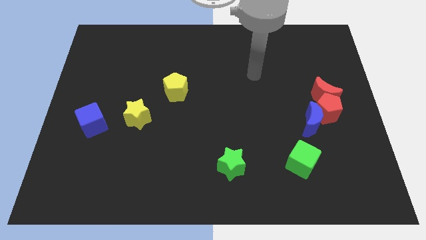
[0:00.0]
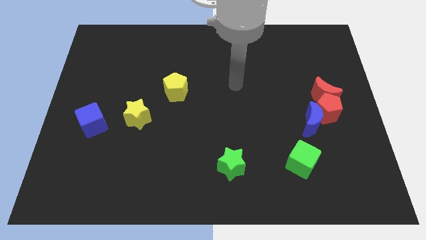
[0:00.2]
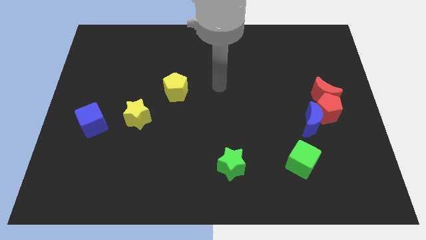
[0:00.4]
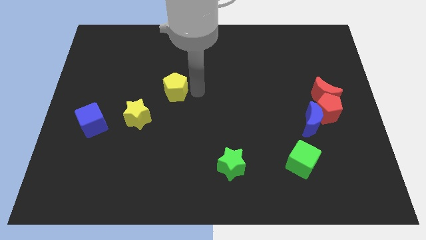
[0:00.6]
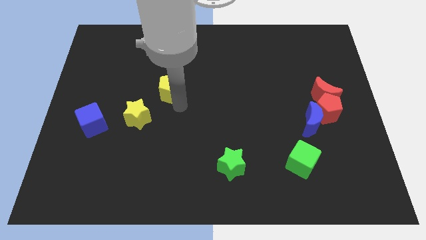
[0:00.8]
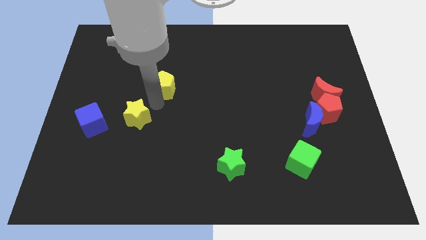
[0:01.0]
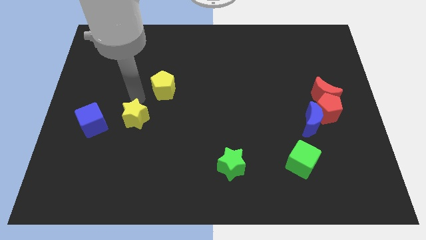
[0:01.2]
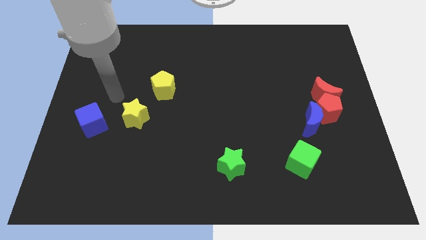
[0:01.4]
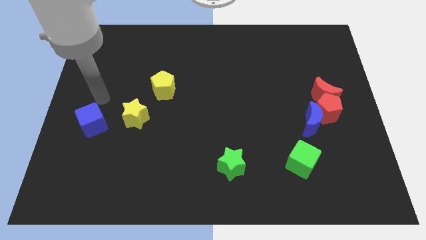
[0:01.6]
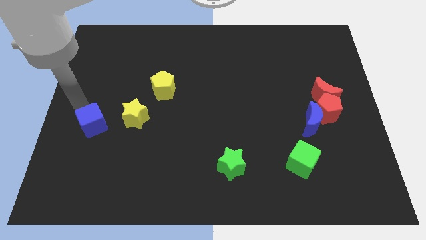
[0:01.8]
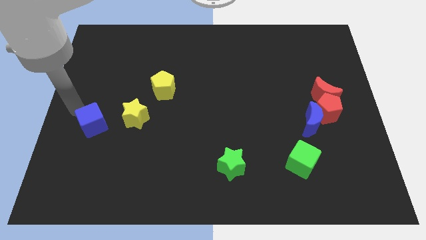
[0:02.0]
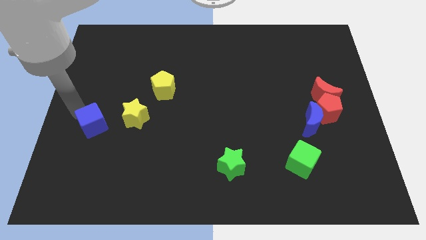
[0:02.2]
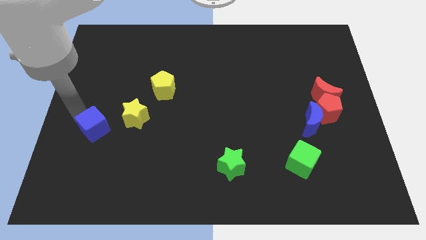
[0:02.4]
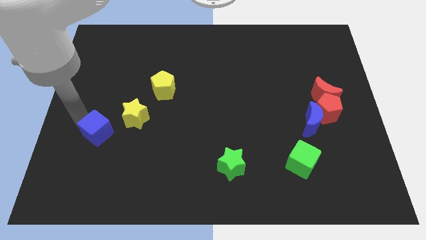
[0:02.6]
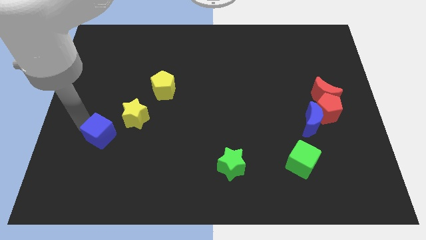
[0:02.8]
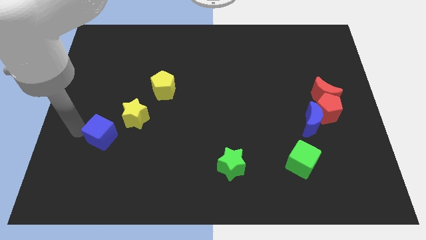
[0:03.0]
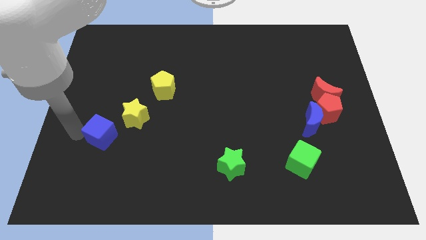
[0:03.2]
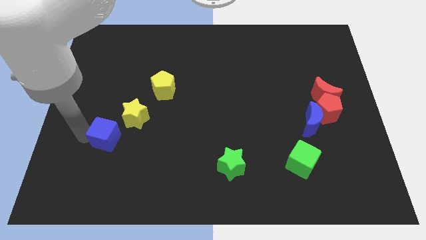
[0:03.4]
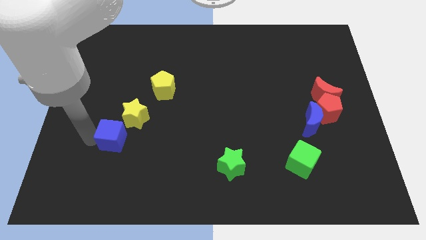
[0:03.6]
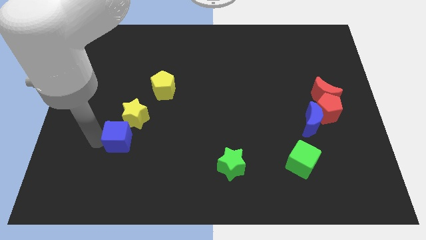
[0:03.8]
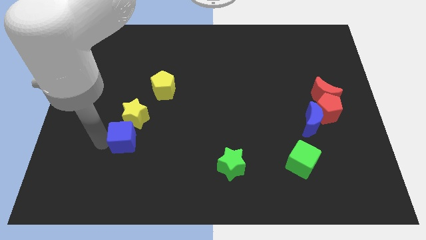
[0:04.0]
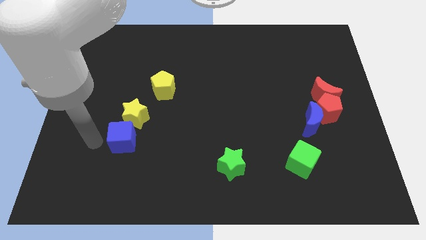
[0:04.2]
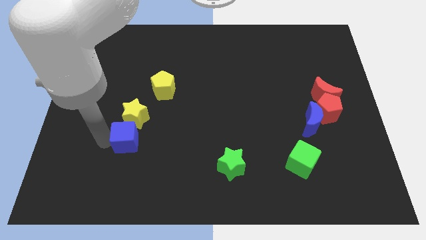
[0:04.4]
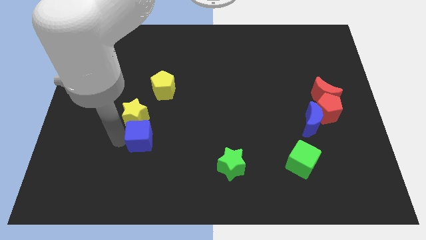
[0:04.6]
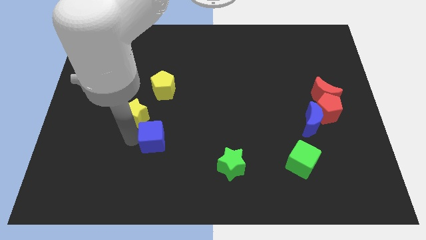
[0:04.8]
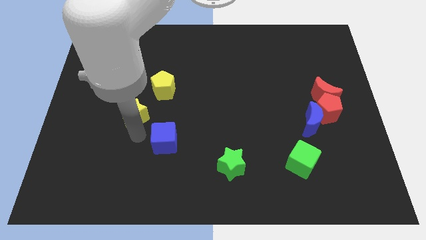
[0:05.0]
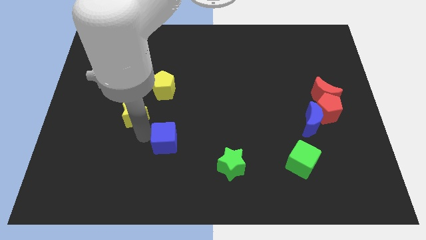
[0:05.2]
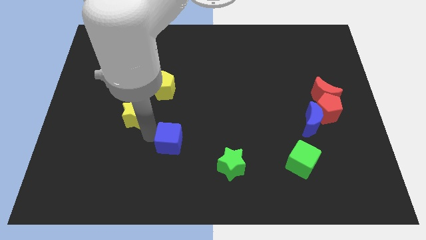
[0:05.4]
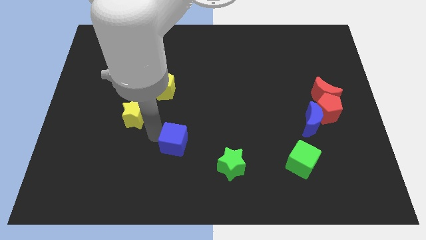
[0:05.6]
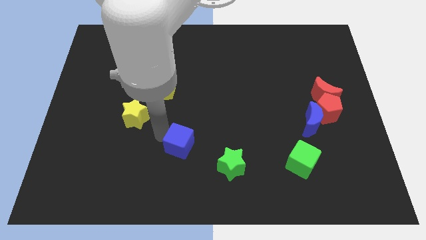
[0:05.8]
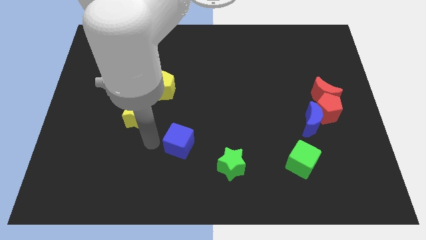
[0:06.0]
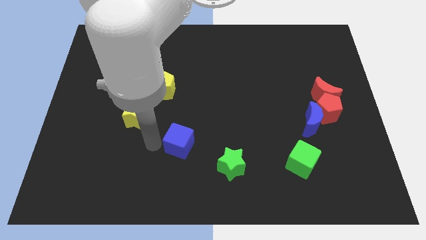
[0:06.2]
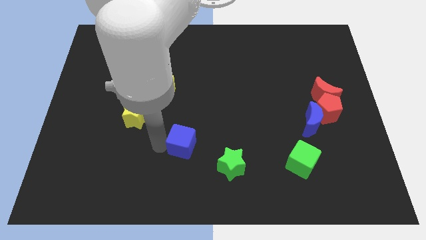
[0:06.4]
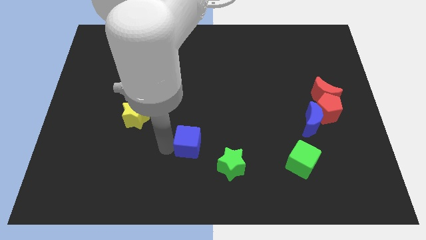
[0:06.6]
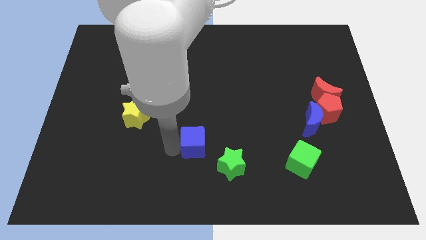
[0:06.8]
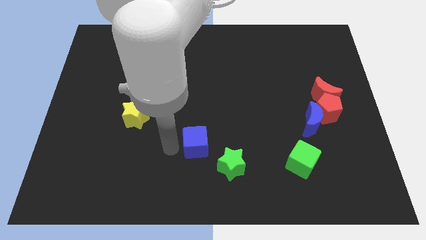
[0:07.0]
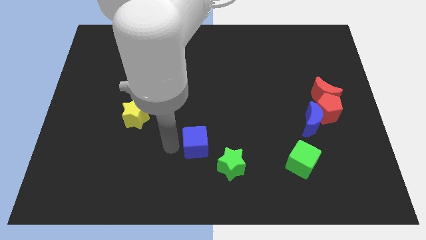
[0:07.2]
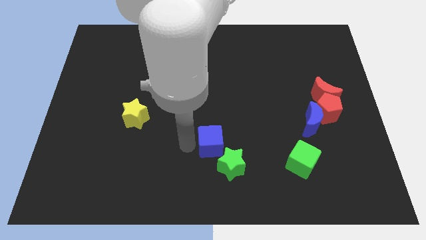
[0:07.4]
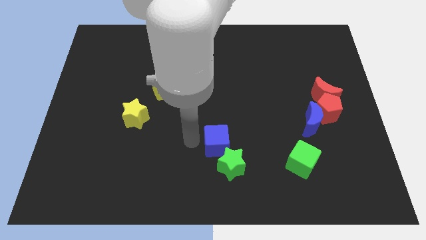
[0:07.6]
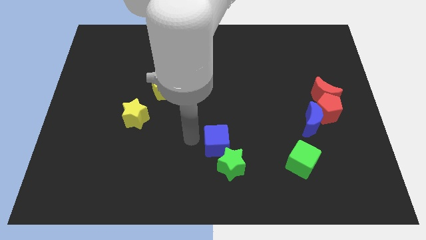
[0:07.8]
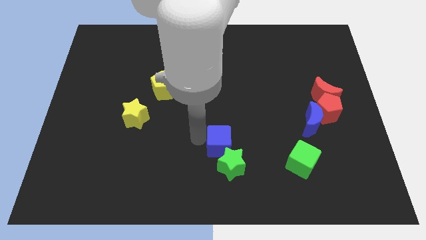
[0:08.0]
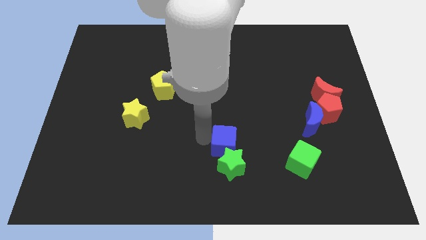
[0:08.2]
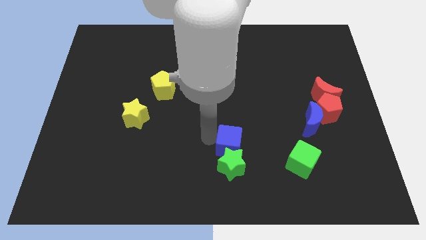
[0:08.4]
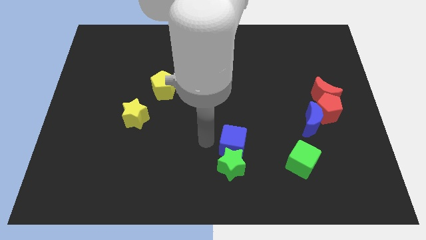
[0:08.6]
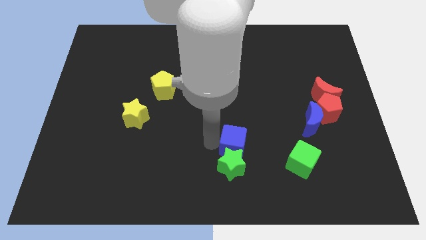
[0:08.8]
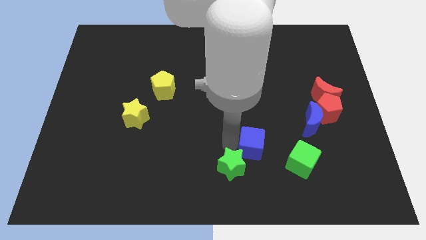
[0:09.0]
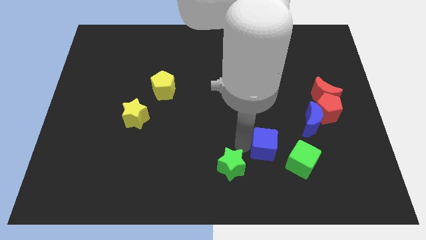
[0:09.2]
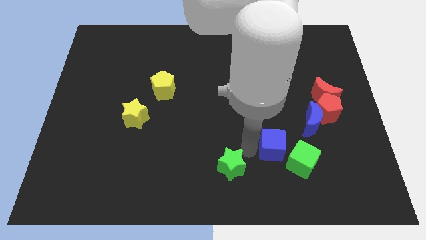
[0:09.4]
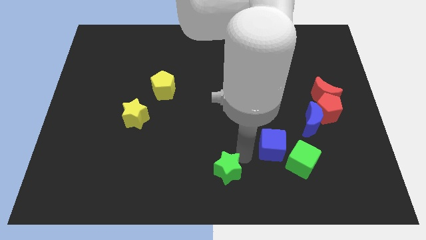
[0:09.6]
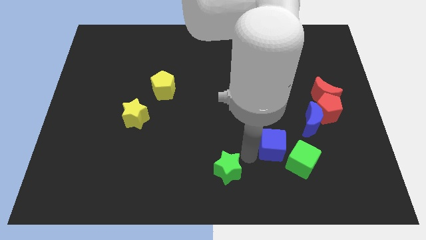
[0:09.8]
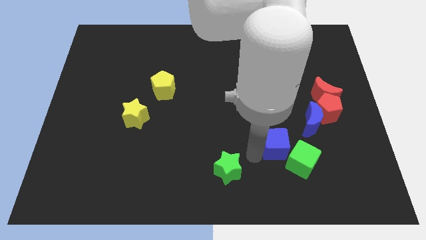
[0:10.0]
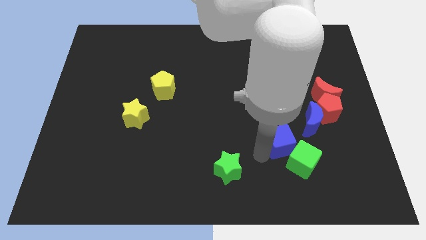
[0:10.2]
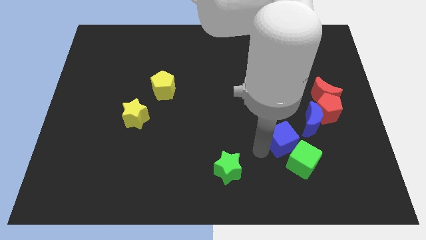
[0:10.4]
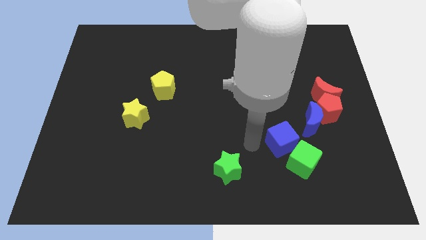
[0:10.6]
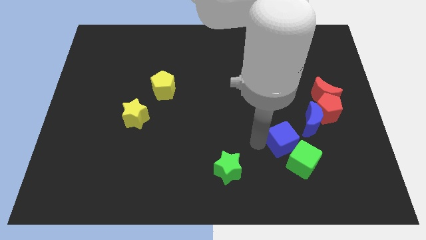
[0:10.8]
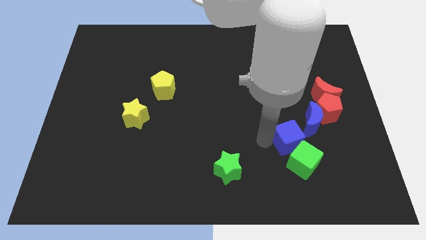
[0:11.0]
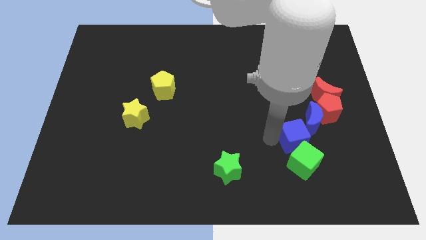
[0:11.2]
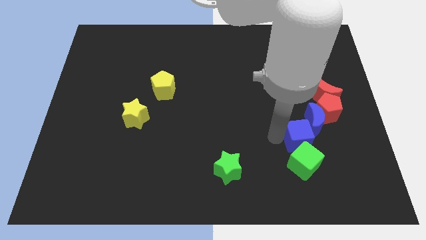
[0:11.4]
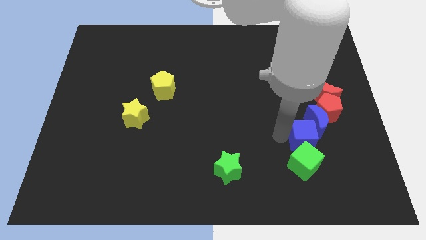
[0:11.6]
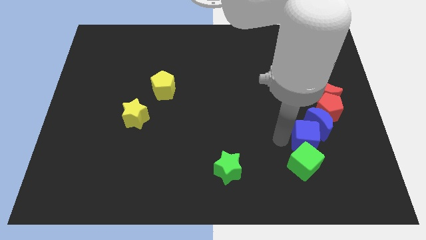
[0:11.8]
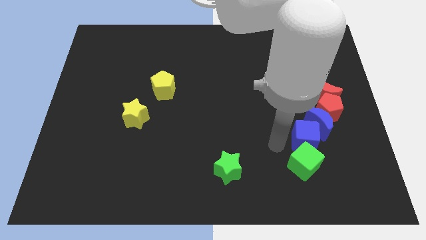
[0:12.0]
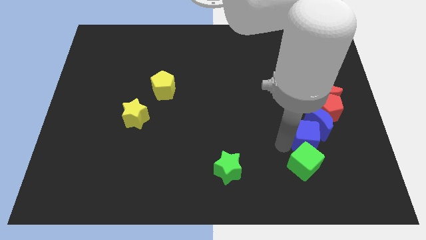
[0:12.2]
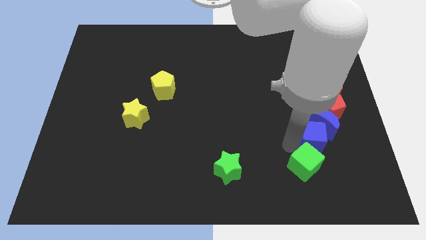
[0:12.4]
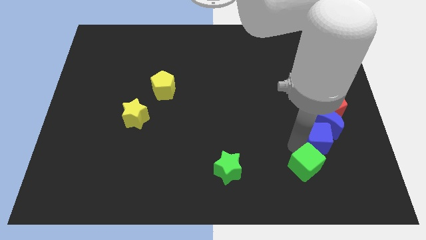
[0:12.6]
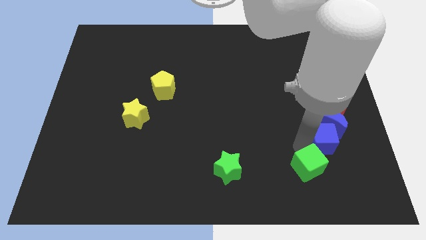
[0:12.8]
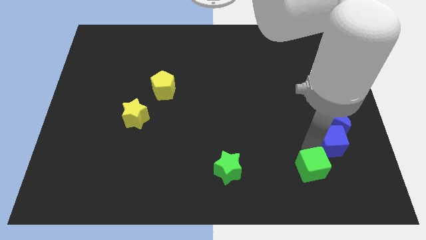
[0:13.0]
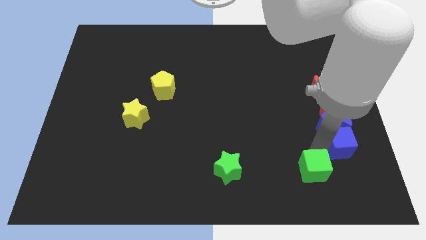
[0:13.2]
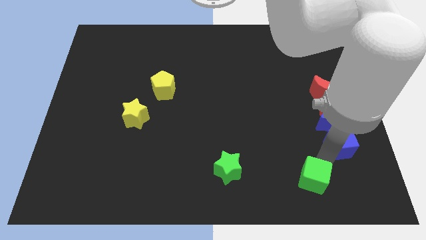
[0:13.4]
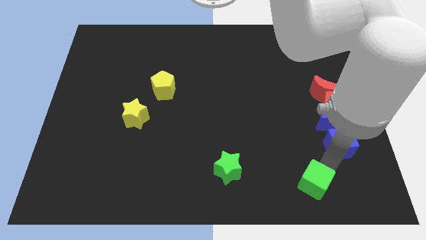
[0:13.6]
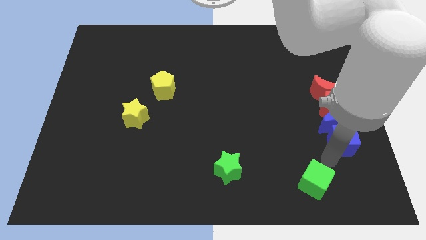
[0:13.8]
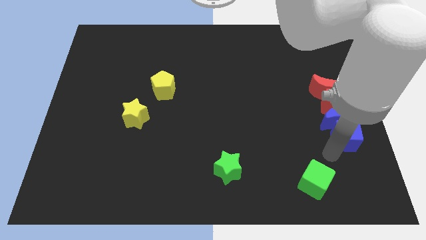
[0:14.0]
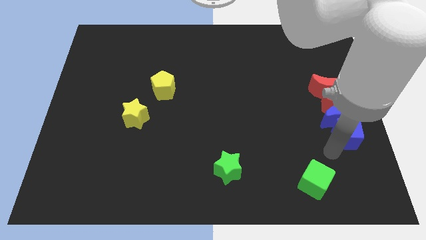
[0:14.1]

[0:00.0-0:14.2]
slide the blue cube to the center right

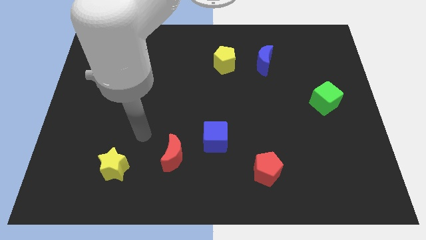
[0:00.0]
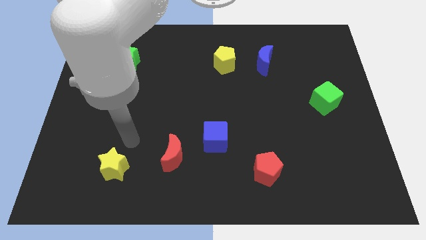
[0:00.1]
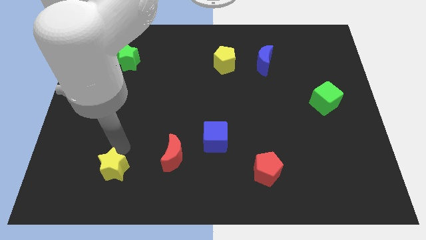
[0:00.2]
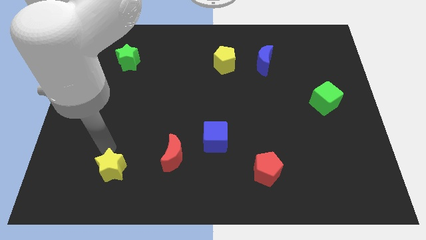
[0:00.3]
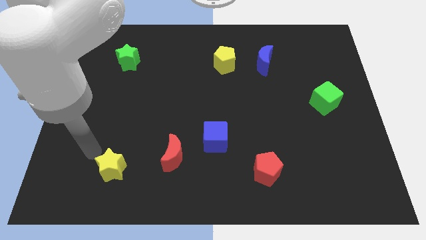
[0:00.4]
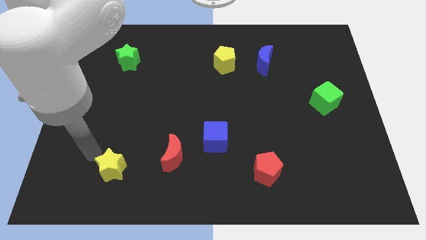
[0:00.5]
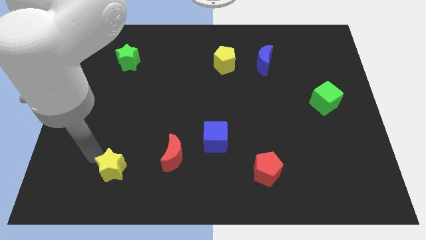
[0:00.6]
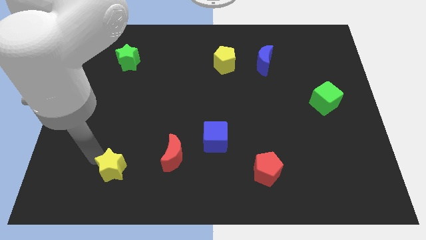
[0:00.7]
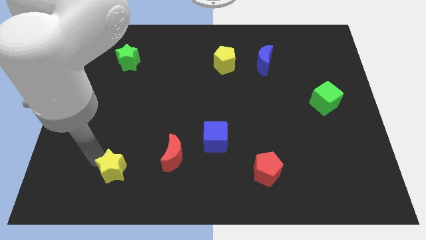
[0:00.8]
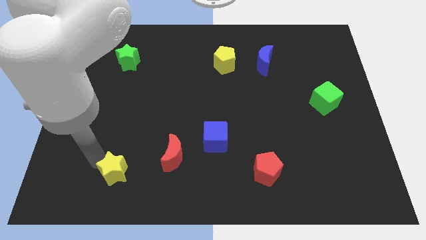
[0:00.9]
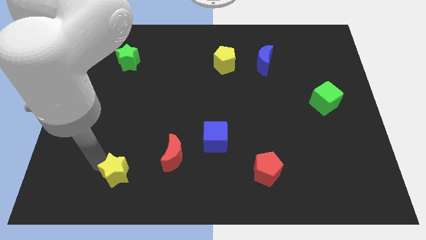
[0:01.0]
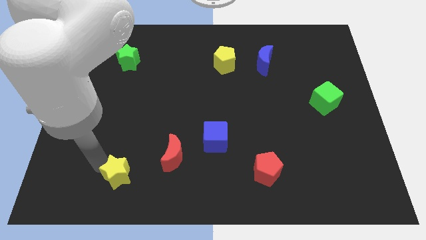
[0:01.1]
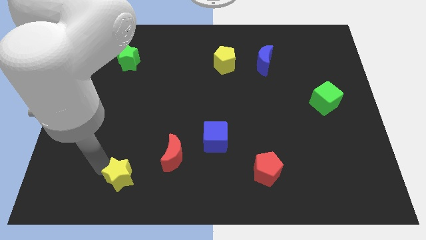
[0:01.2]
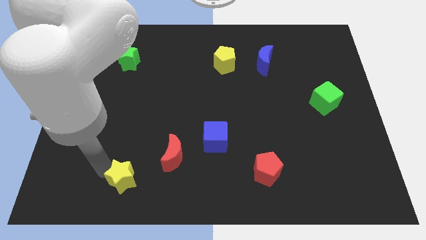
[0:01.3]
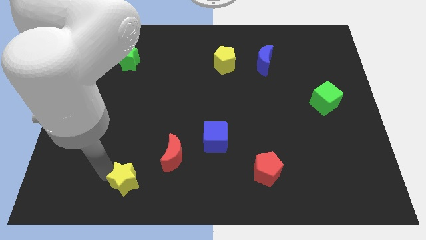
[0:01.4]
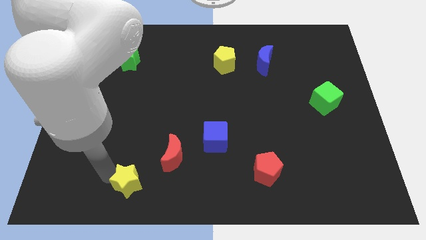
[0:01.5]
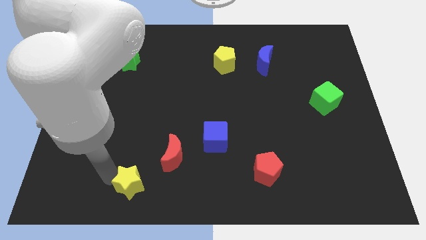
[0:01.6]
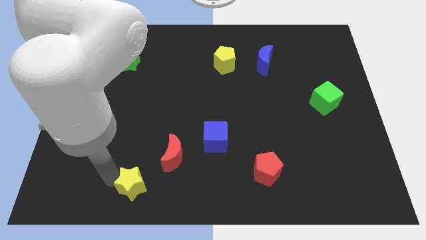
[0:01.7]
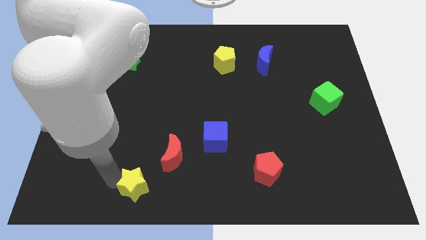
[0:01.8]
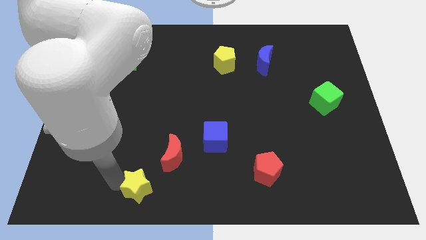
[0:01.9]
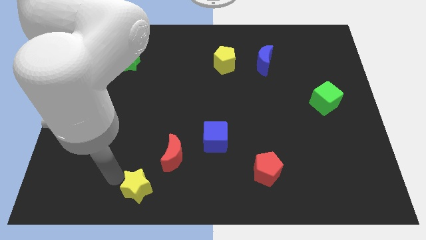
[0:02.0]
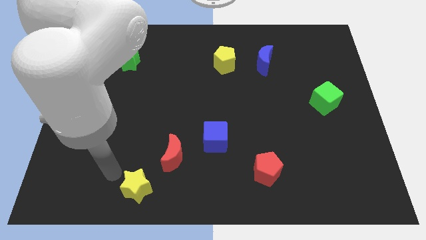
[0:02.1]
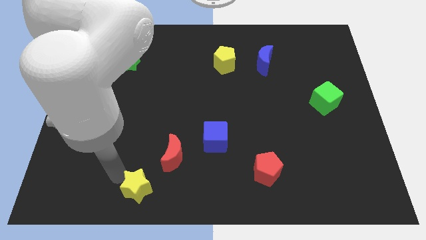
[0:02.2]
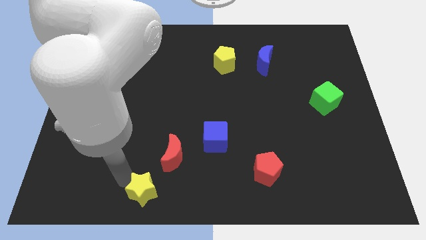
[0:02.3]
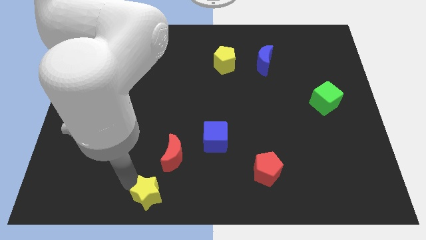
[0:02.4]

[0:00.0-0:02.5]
push the yellow star to the bottom
